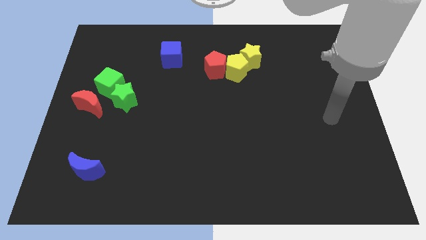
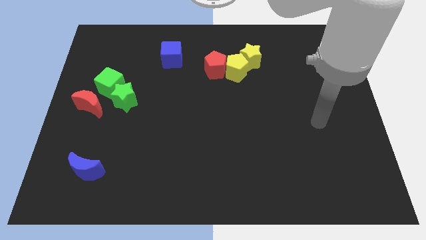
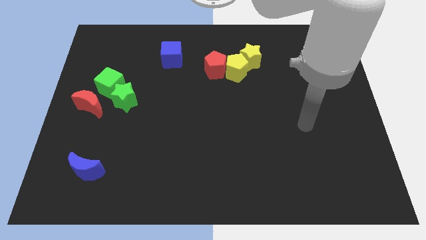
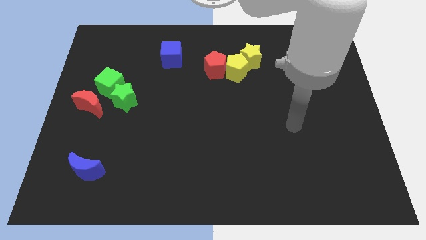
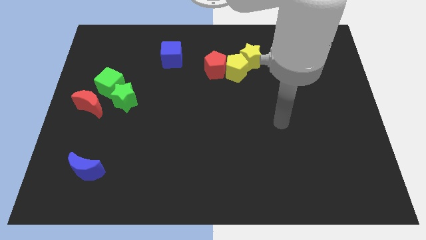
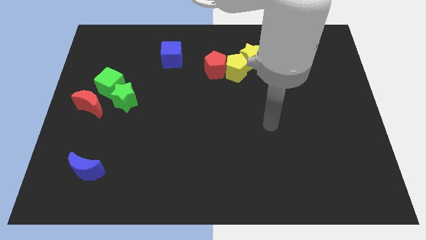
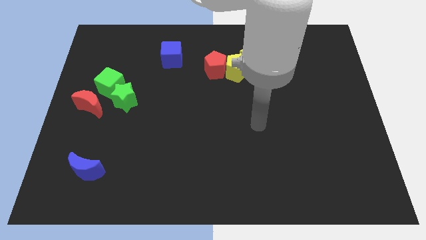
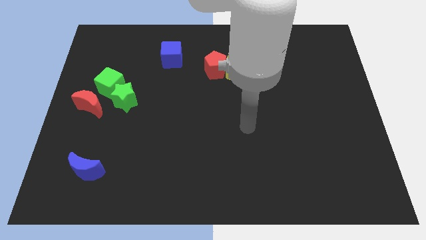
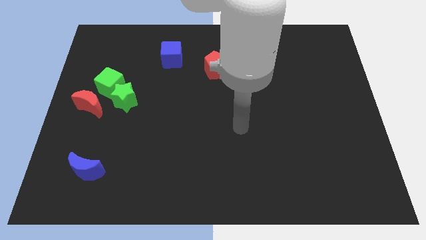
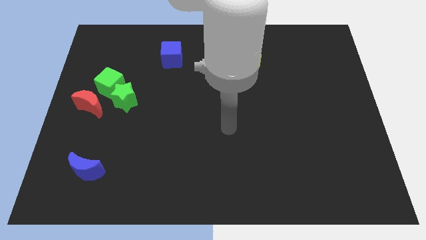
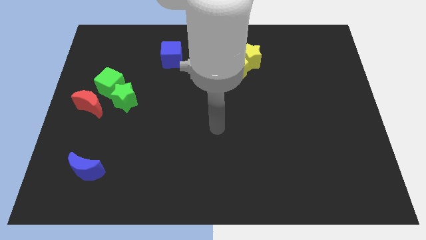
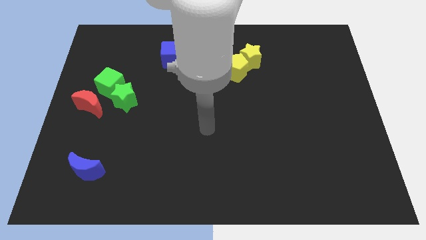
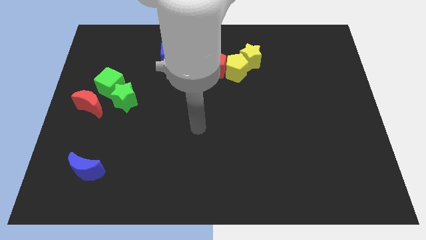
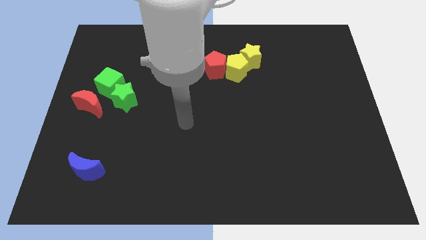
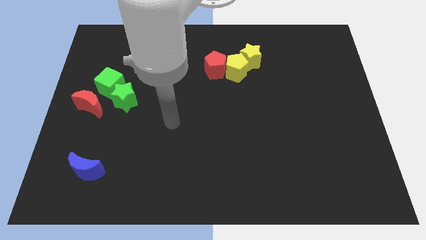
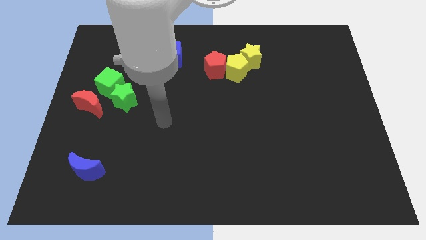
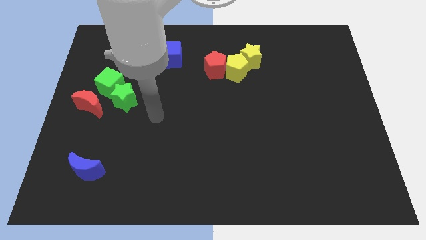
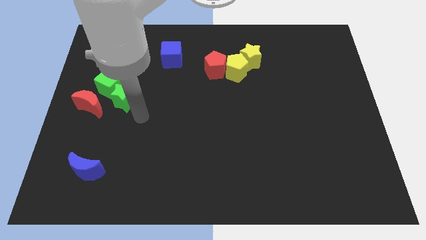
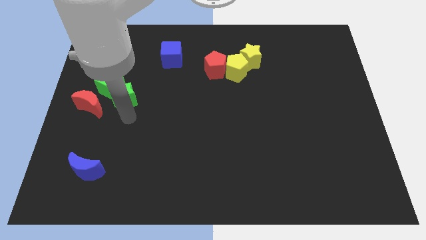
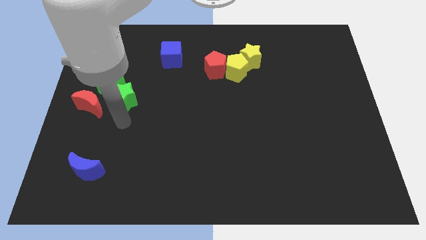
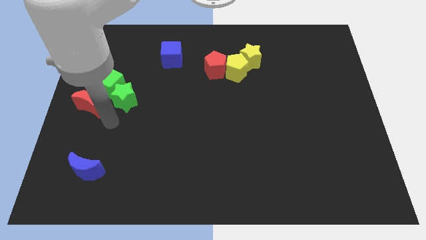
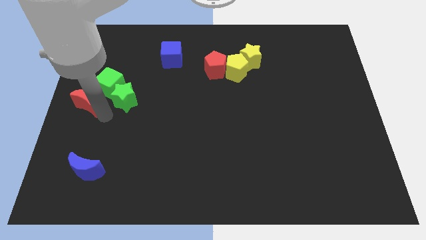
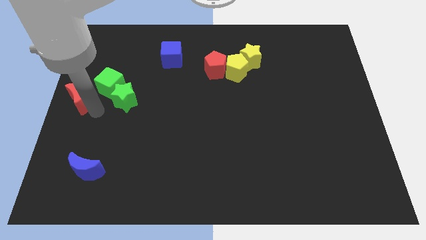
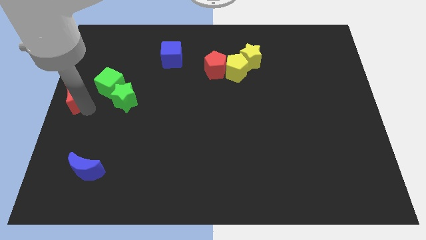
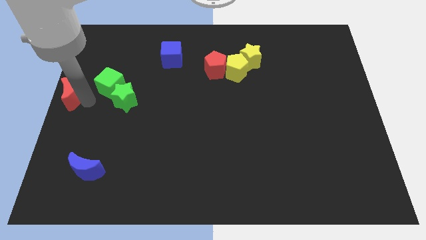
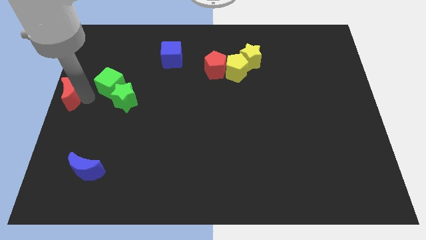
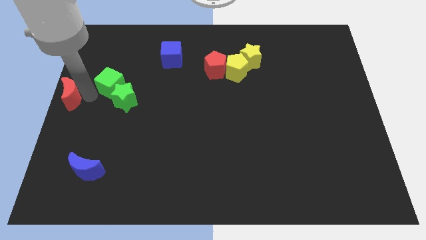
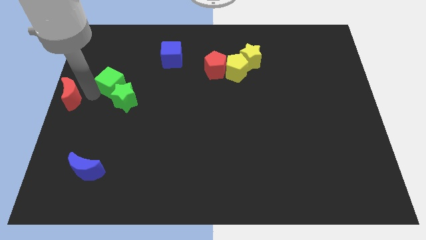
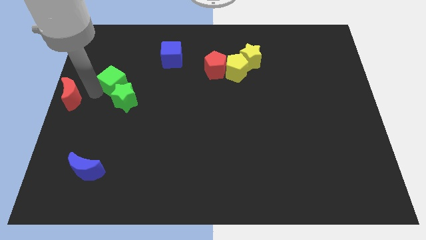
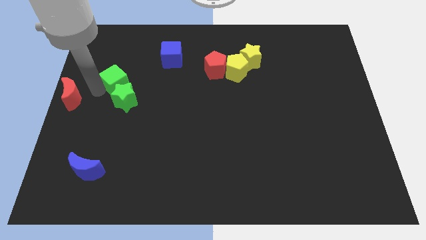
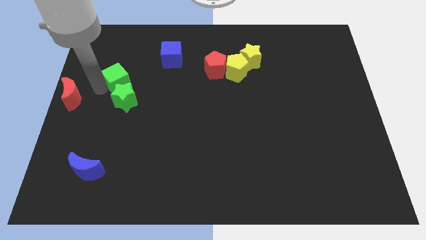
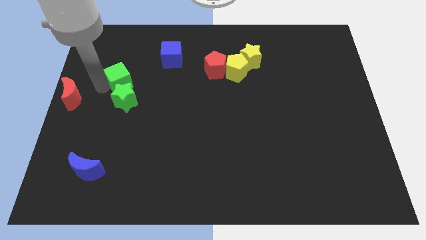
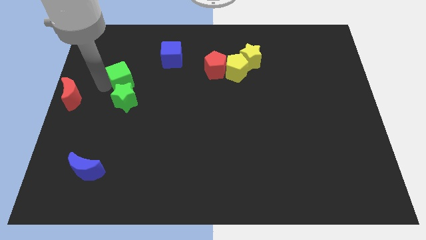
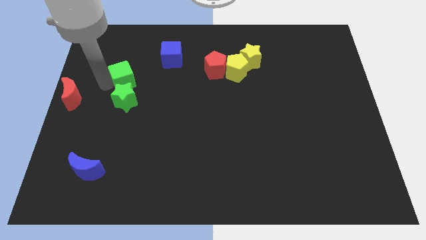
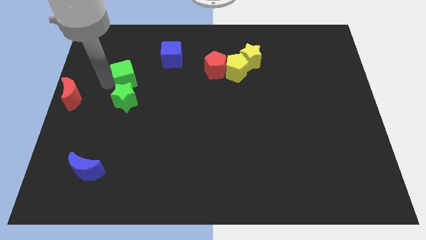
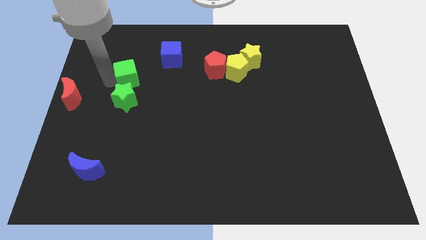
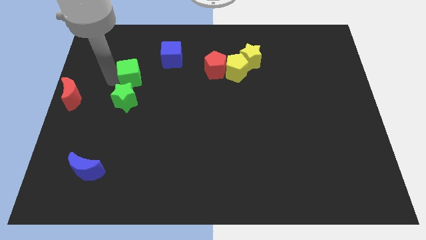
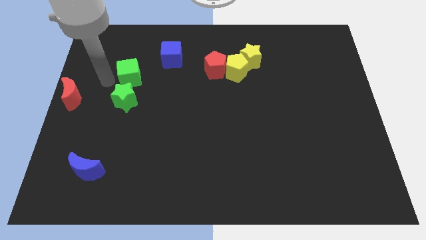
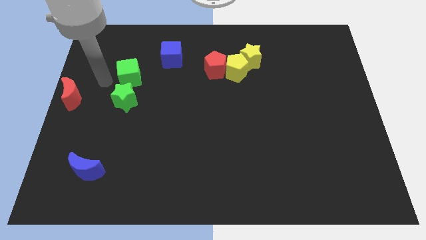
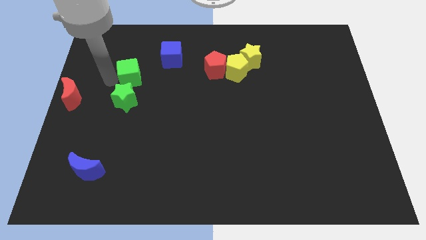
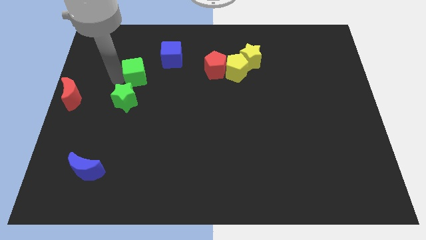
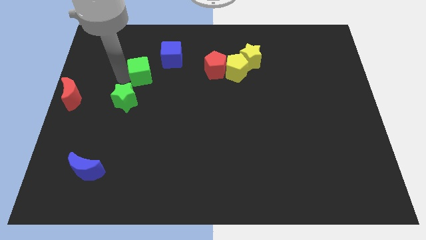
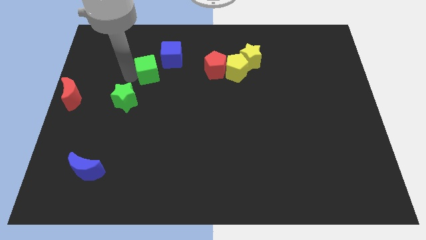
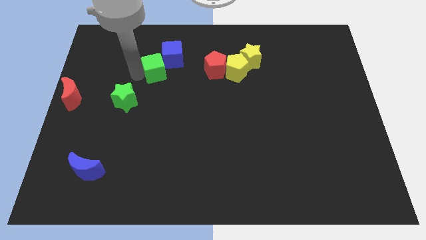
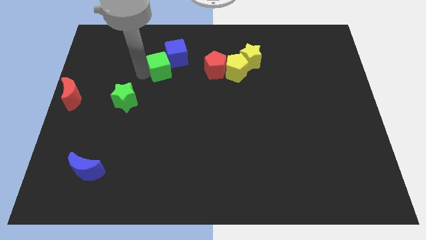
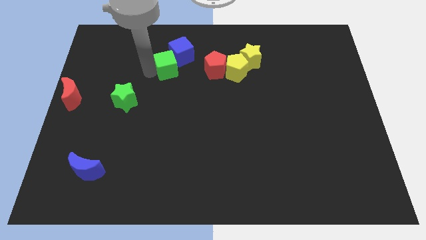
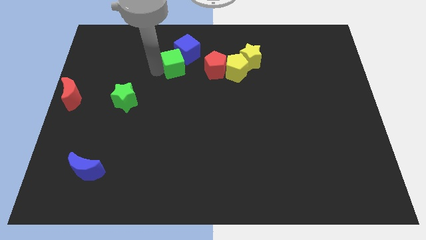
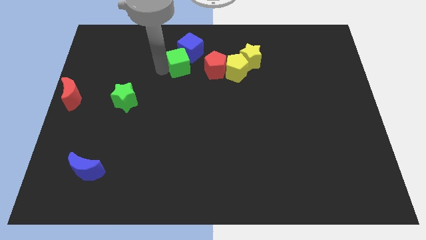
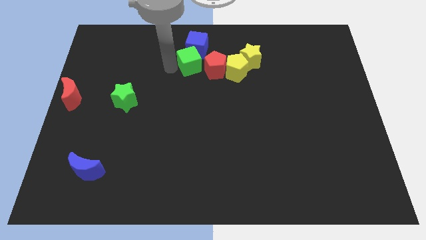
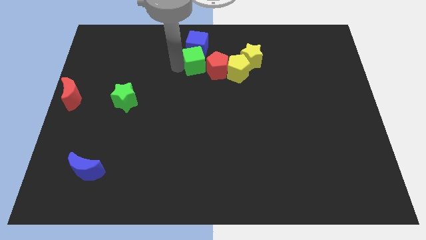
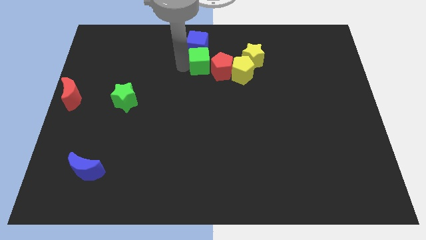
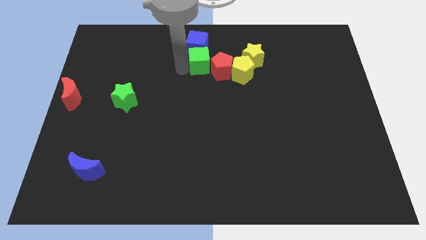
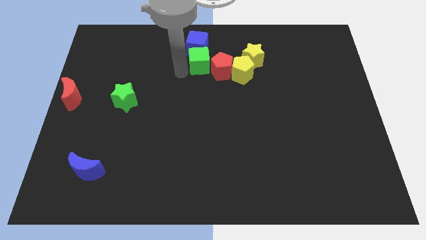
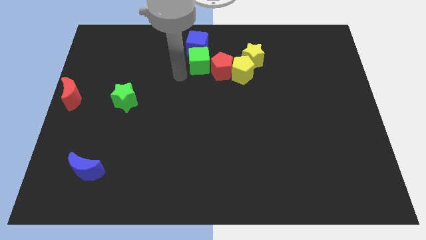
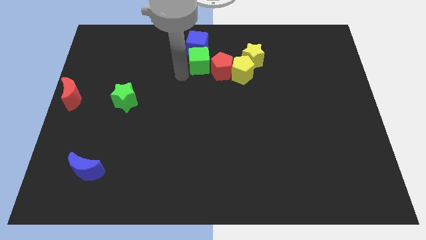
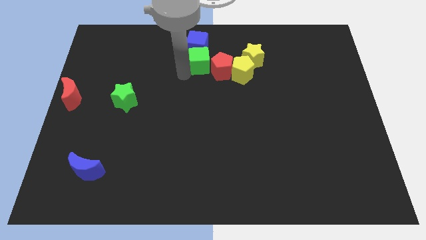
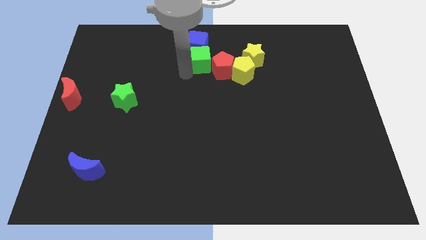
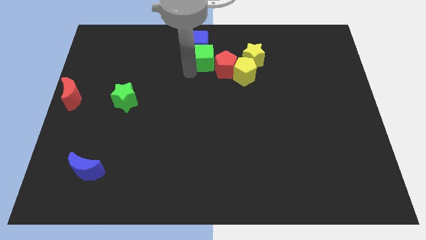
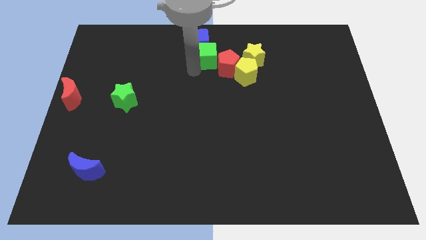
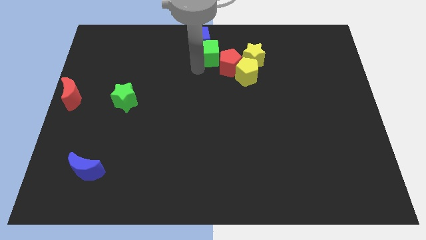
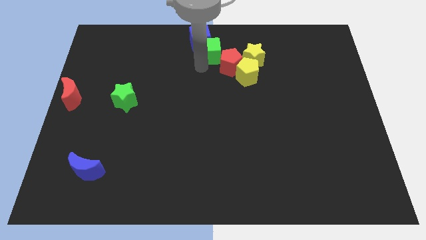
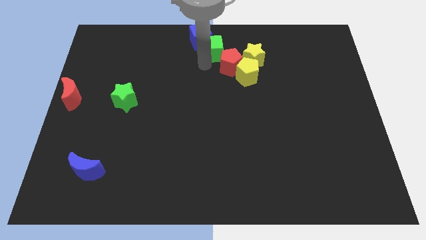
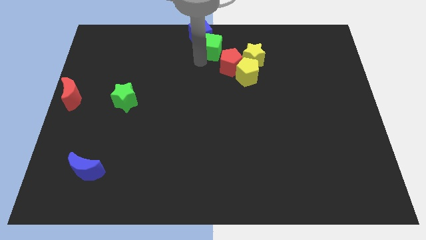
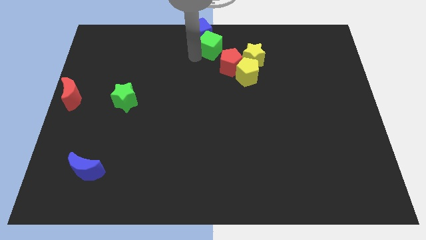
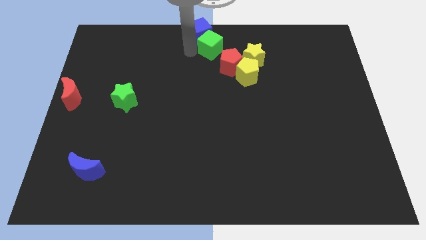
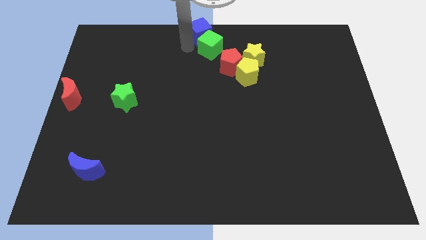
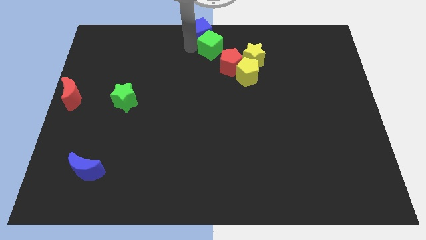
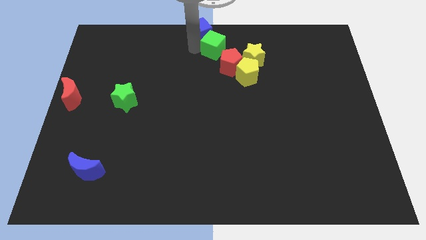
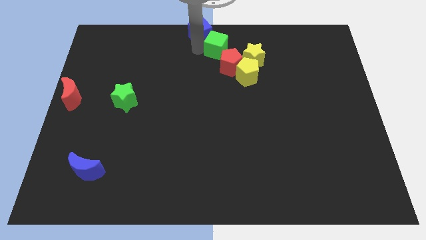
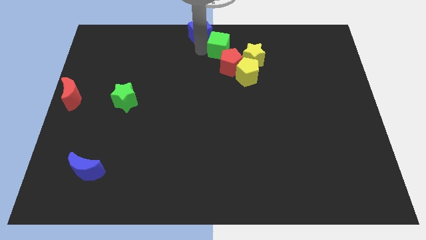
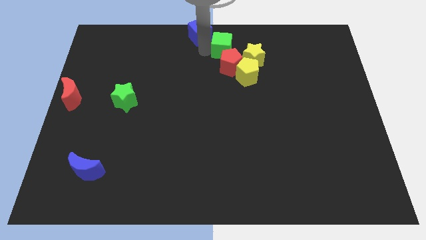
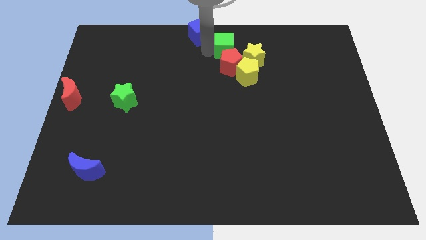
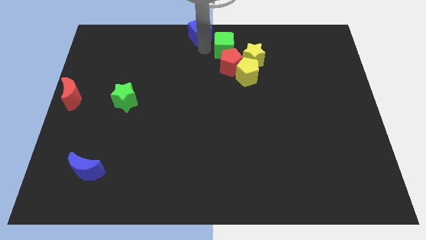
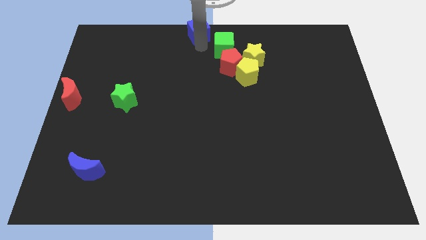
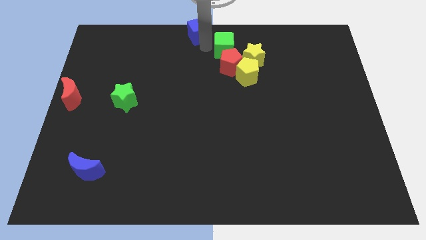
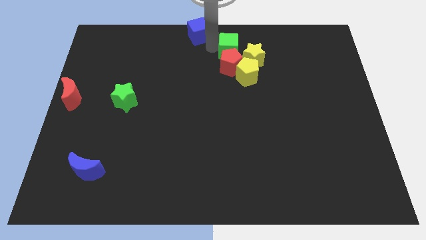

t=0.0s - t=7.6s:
move the green cube to the top right side of the red pentagon

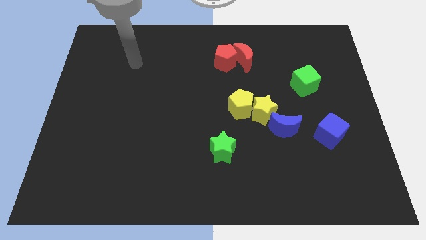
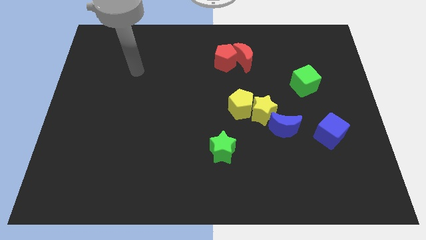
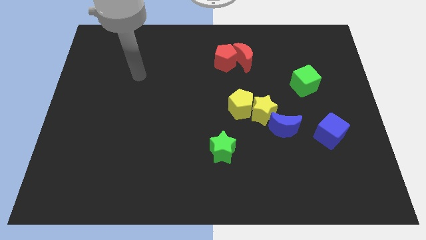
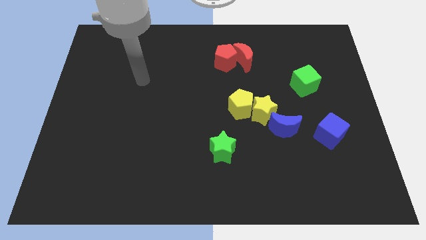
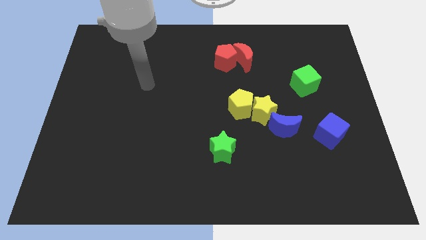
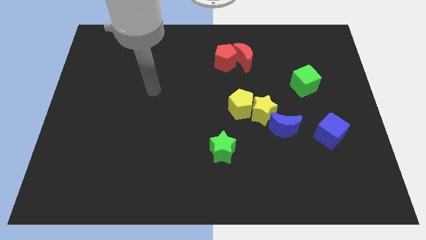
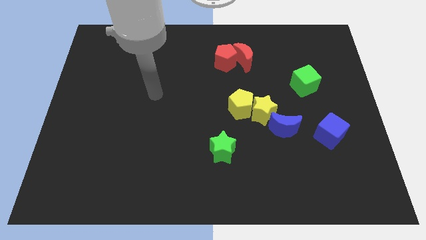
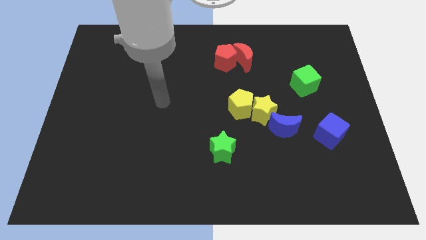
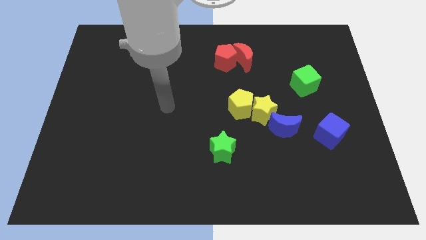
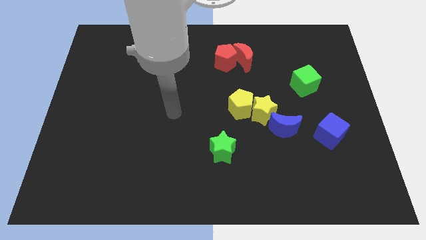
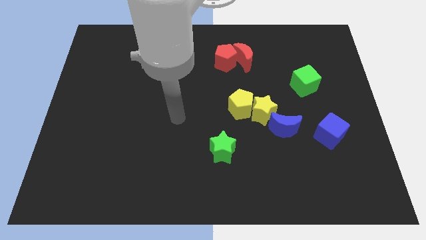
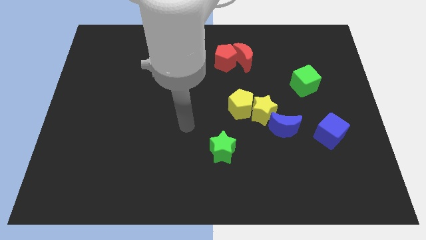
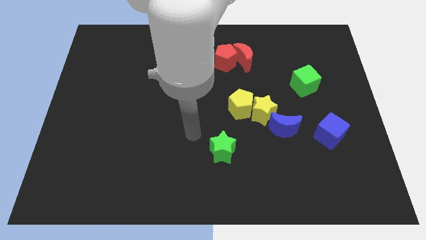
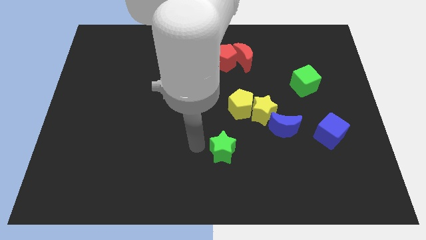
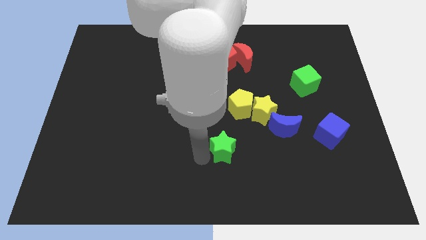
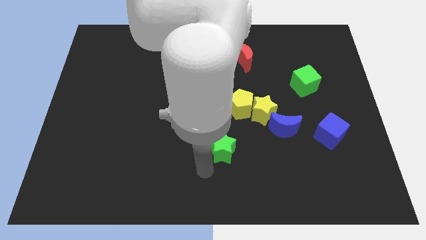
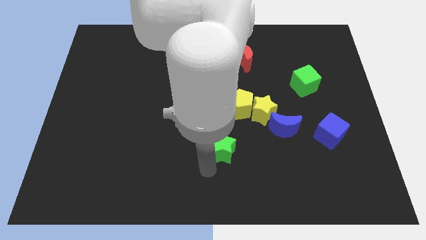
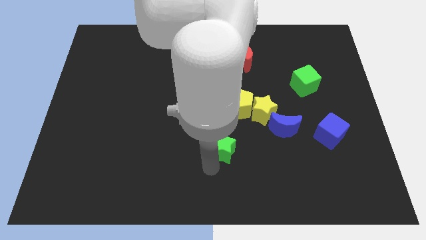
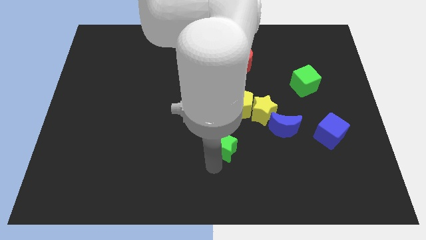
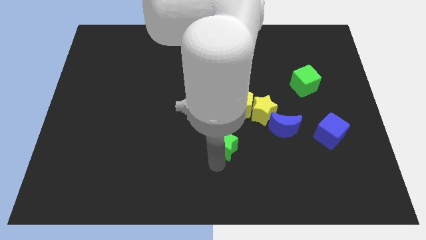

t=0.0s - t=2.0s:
slide the green star to the bottom left of the yellow star
